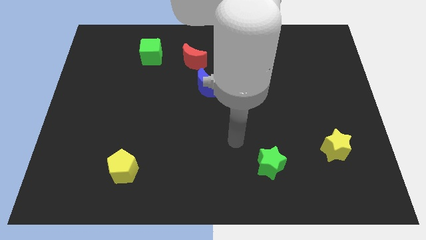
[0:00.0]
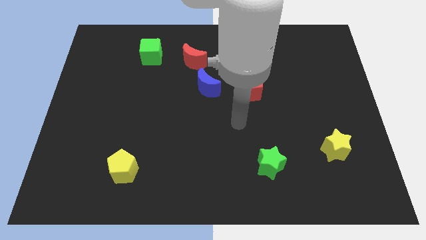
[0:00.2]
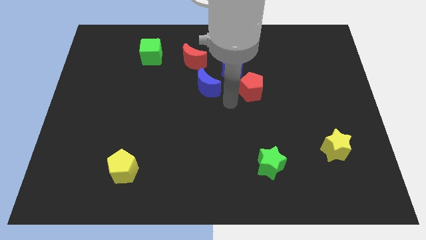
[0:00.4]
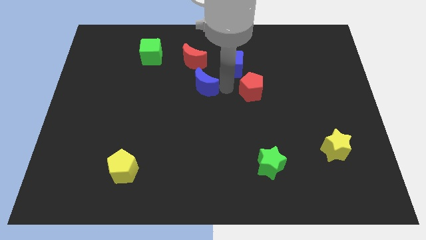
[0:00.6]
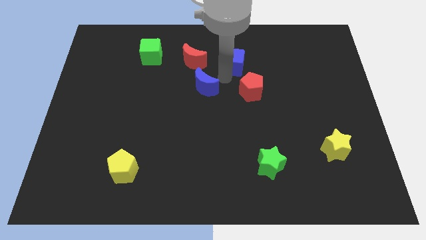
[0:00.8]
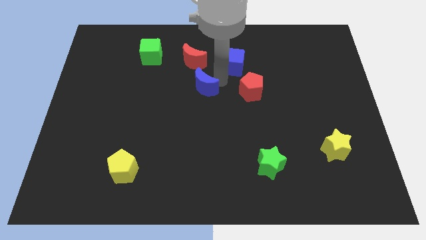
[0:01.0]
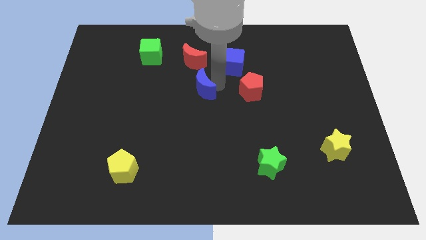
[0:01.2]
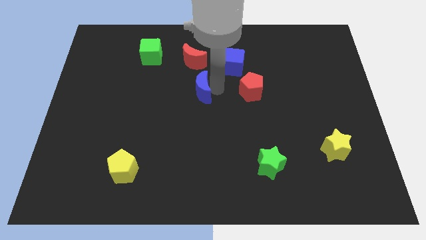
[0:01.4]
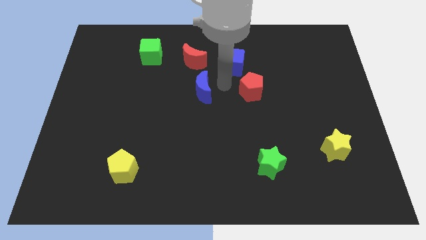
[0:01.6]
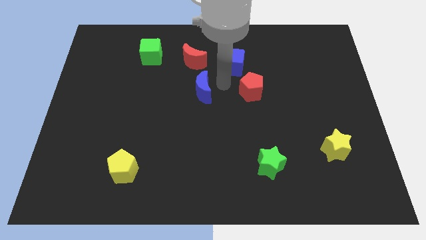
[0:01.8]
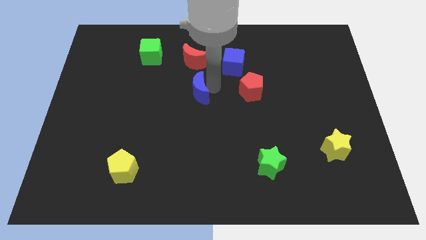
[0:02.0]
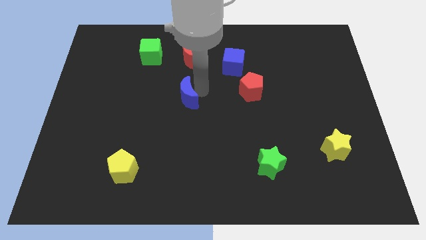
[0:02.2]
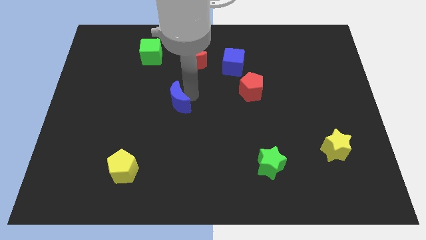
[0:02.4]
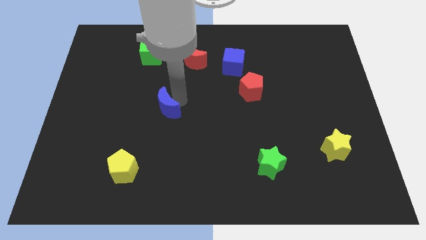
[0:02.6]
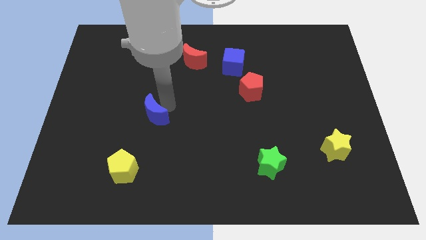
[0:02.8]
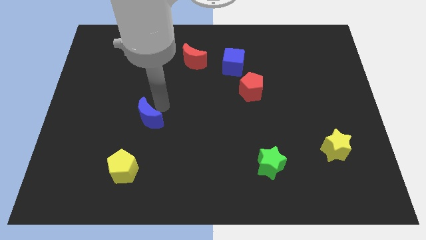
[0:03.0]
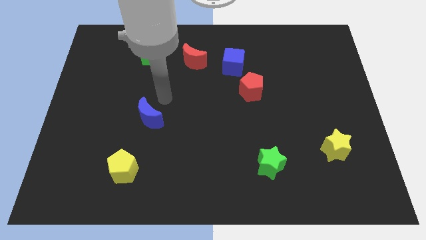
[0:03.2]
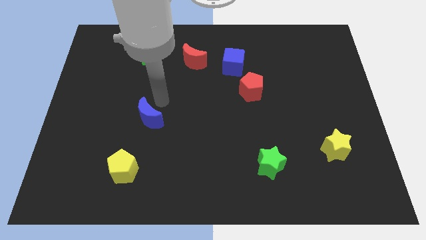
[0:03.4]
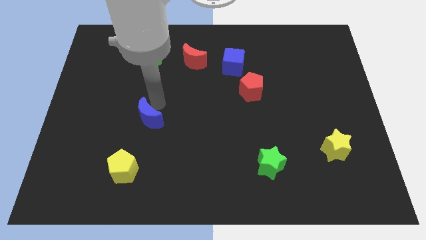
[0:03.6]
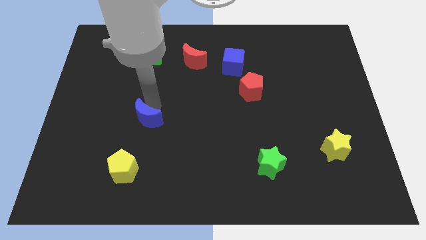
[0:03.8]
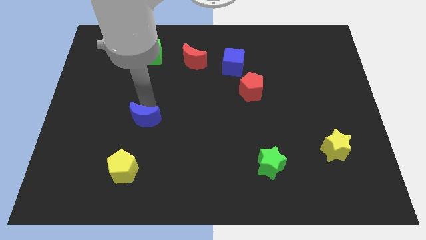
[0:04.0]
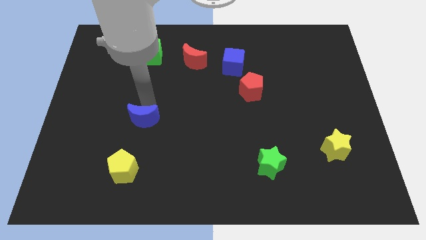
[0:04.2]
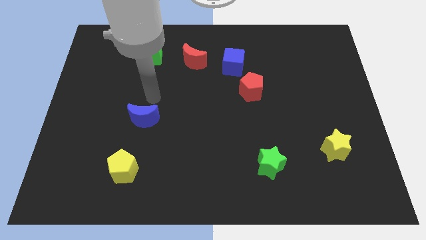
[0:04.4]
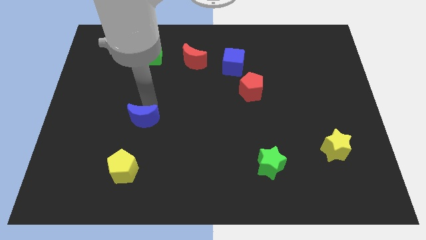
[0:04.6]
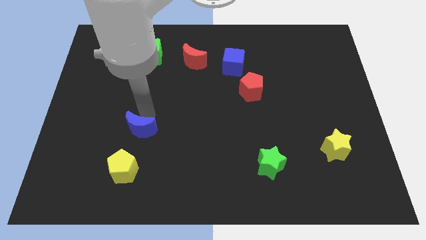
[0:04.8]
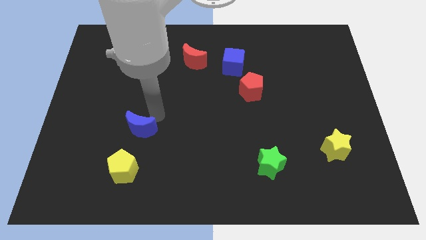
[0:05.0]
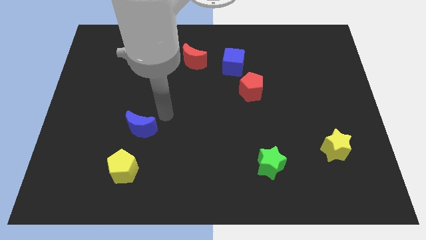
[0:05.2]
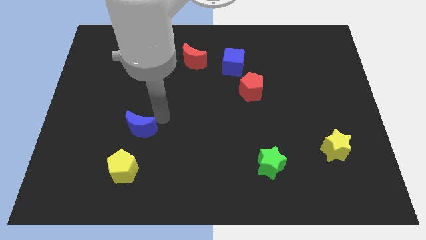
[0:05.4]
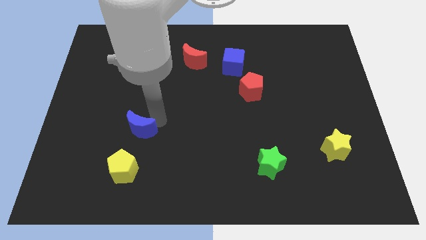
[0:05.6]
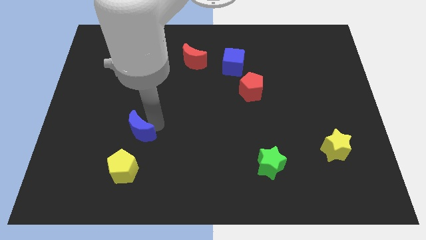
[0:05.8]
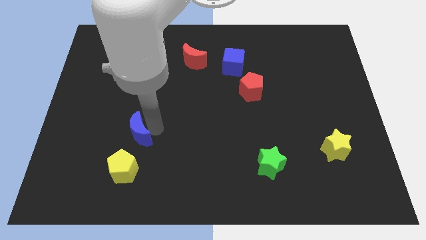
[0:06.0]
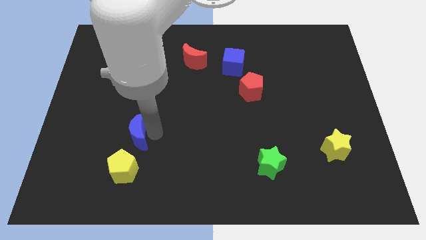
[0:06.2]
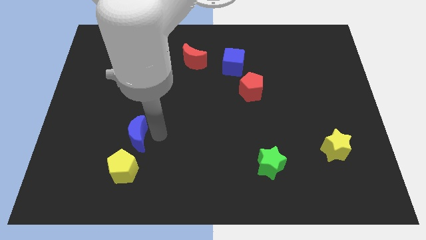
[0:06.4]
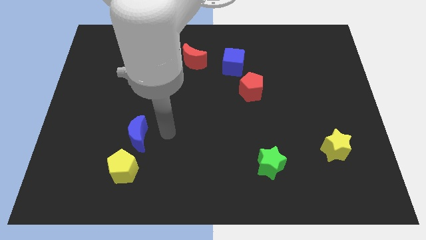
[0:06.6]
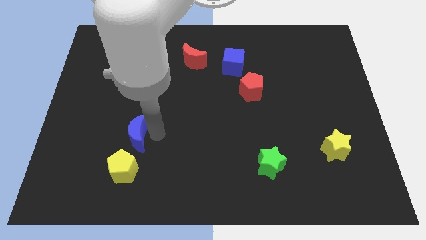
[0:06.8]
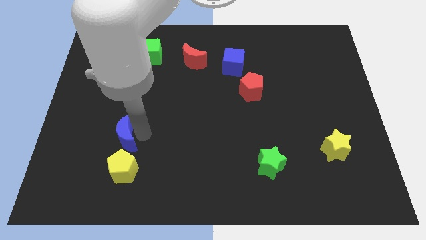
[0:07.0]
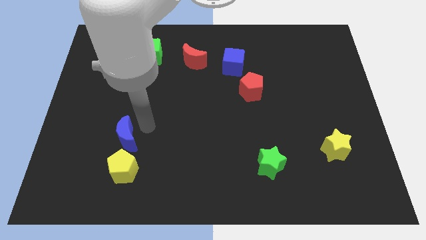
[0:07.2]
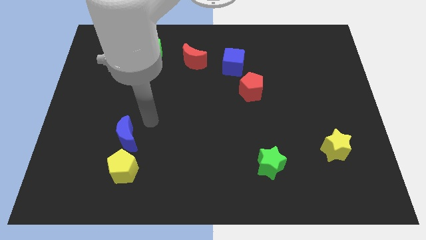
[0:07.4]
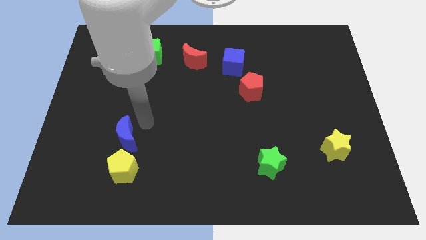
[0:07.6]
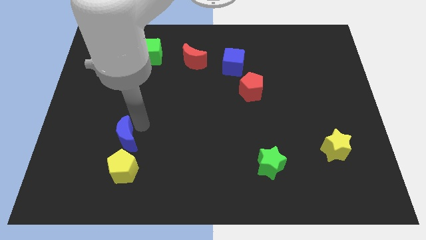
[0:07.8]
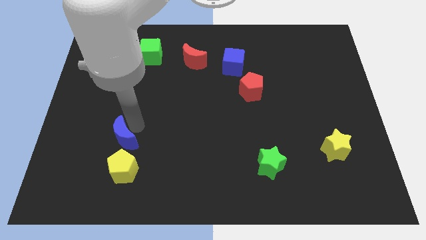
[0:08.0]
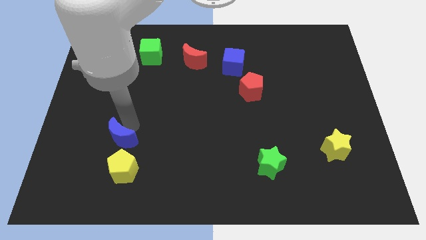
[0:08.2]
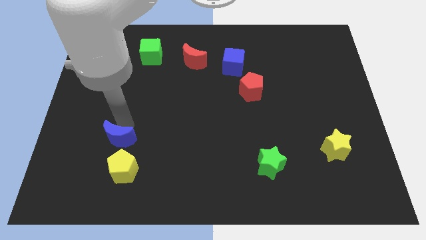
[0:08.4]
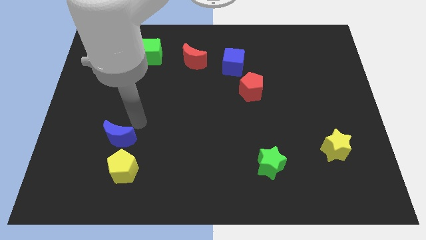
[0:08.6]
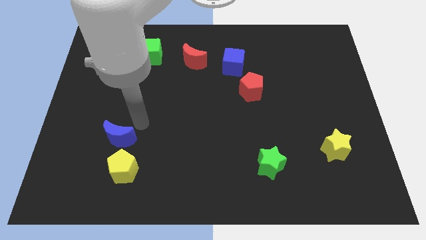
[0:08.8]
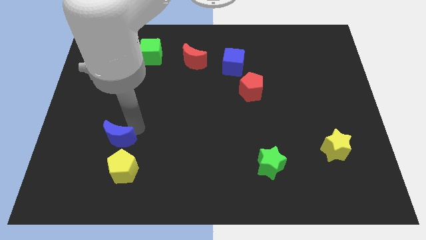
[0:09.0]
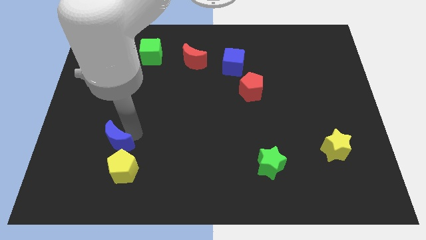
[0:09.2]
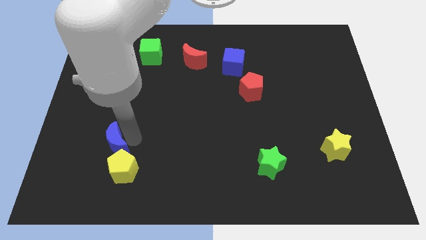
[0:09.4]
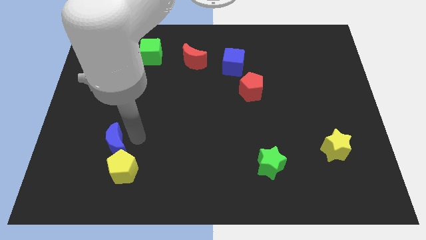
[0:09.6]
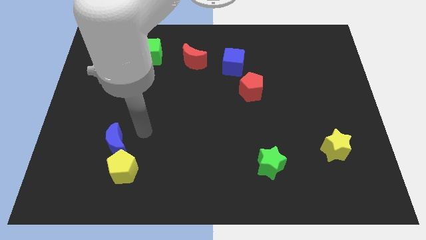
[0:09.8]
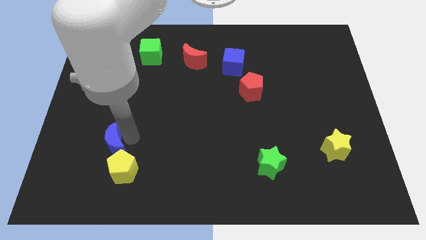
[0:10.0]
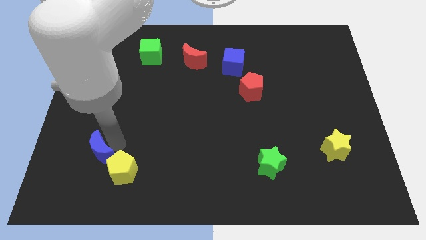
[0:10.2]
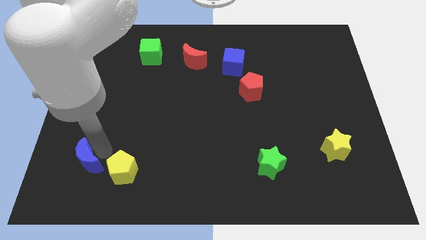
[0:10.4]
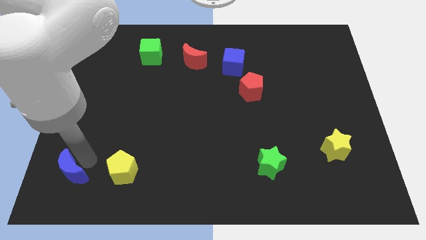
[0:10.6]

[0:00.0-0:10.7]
move the blue moon to the lower left corner

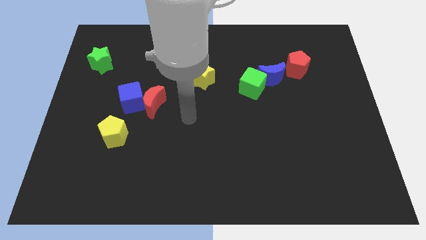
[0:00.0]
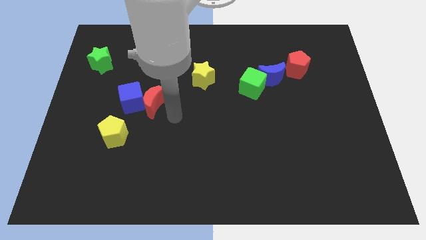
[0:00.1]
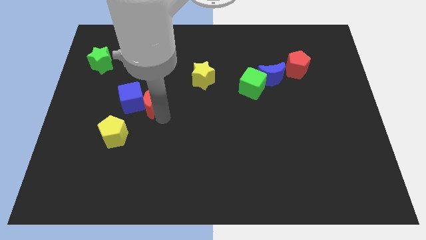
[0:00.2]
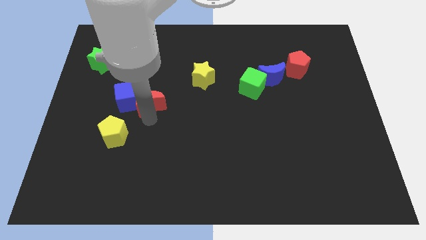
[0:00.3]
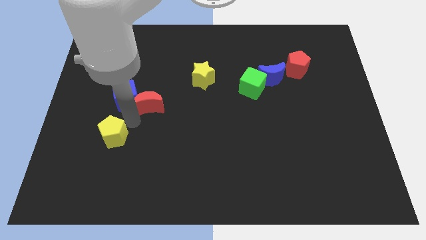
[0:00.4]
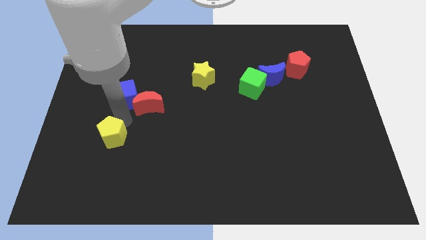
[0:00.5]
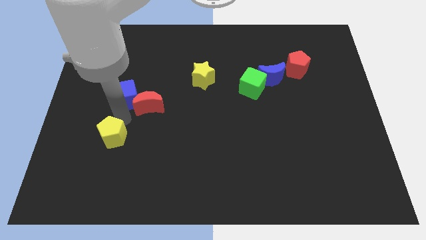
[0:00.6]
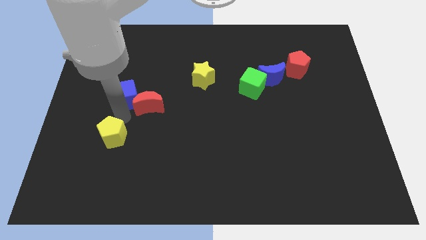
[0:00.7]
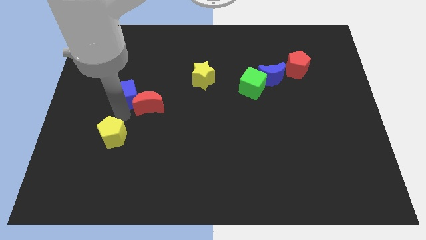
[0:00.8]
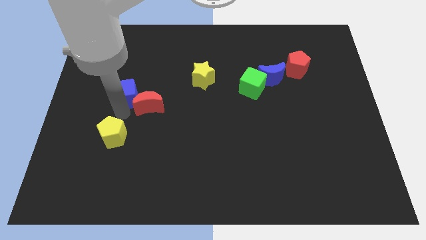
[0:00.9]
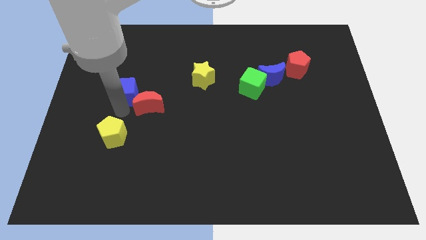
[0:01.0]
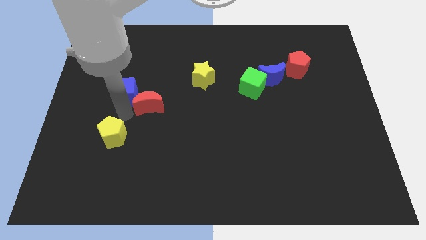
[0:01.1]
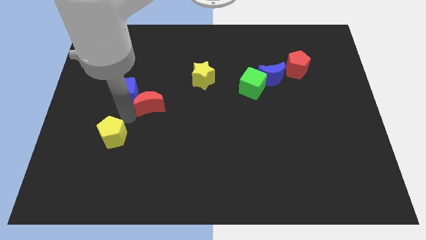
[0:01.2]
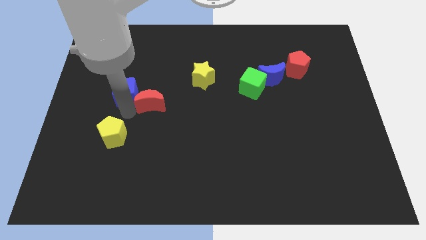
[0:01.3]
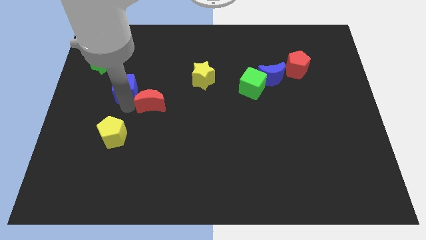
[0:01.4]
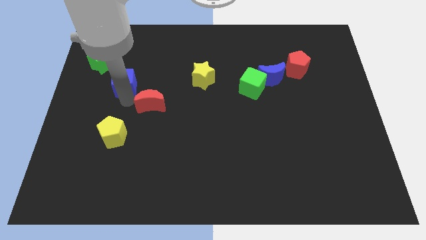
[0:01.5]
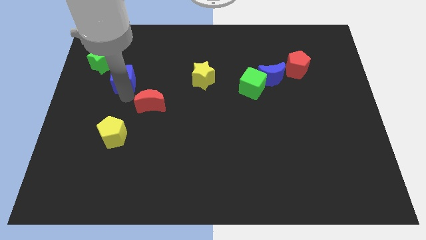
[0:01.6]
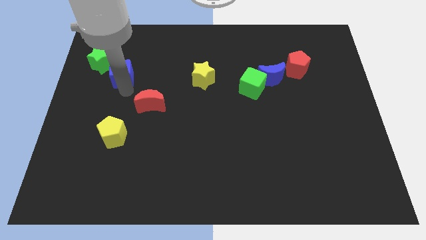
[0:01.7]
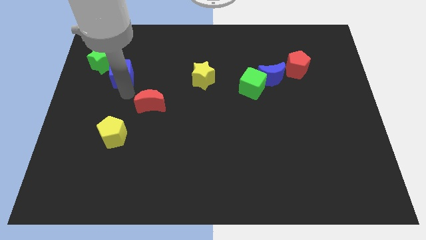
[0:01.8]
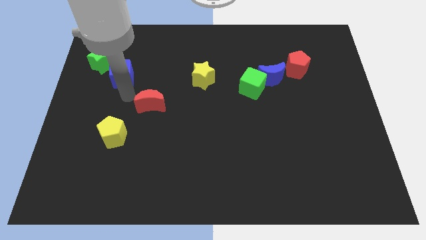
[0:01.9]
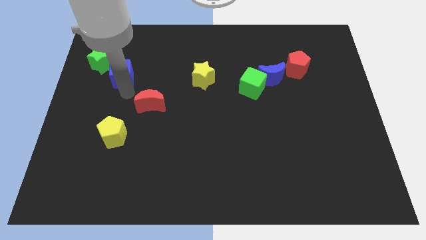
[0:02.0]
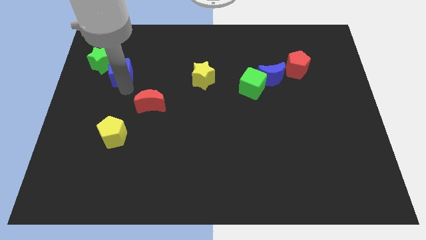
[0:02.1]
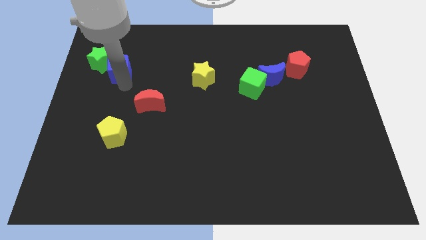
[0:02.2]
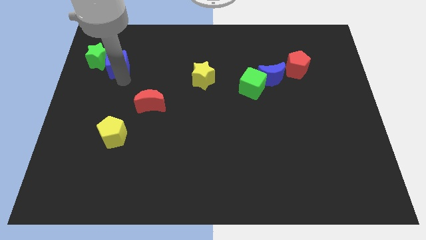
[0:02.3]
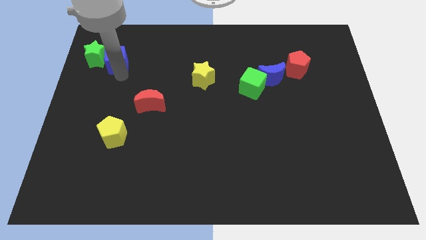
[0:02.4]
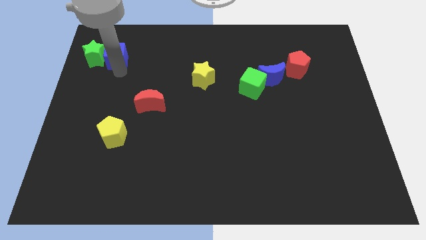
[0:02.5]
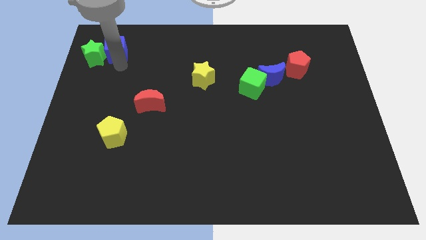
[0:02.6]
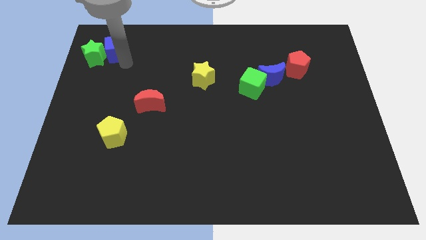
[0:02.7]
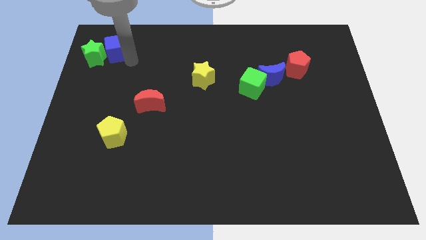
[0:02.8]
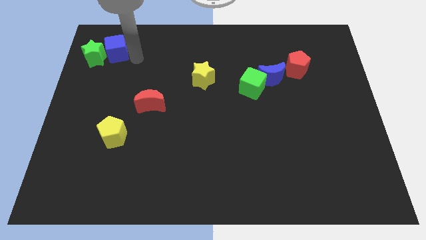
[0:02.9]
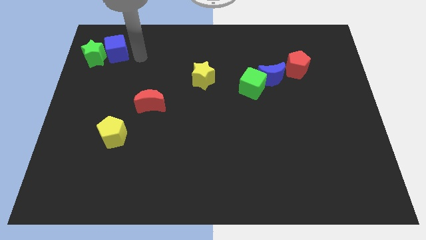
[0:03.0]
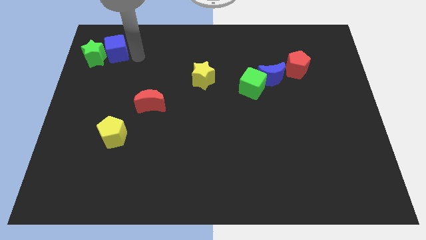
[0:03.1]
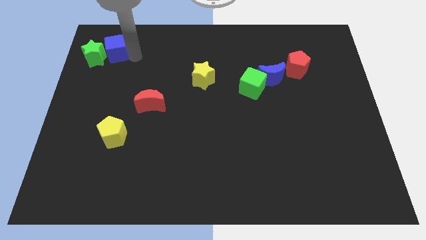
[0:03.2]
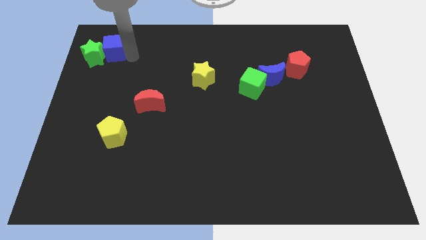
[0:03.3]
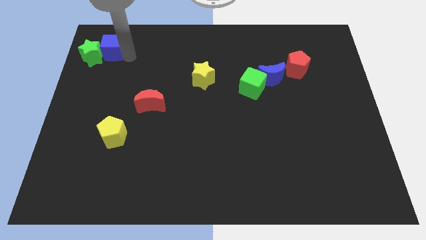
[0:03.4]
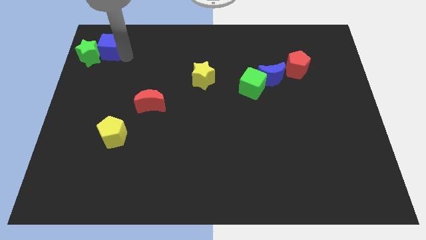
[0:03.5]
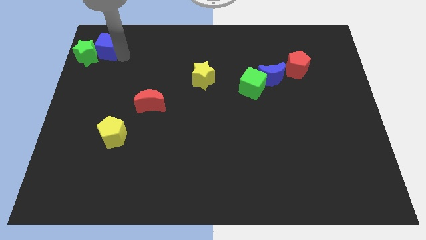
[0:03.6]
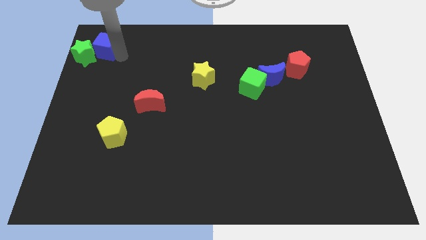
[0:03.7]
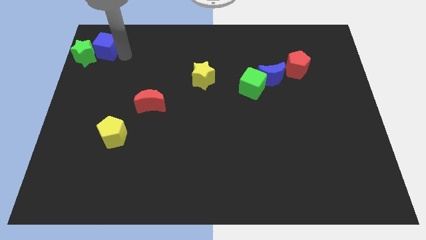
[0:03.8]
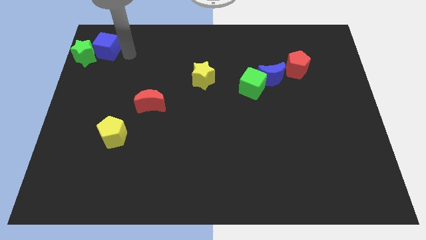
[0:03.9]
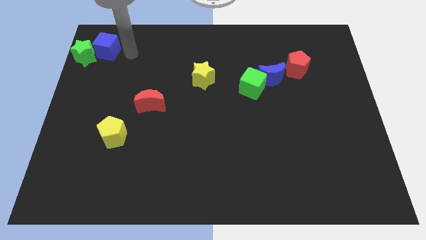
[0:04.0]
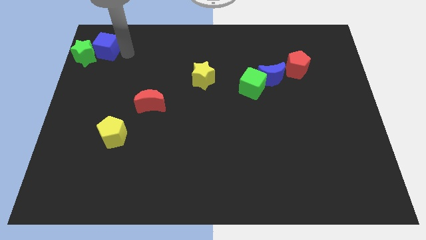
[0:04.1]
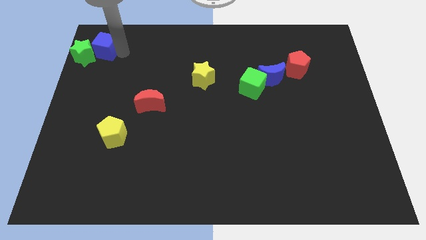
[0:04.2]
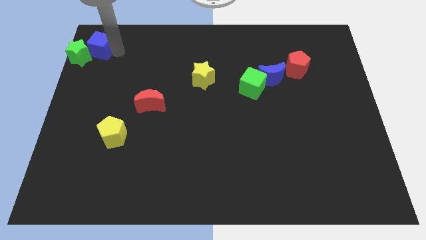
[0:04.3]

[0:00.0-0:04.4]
move the blue cube to the upper left corner
